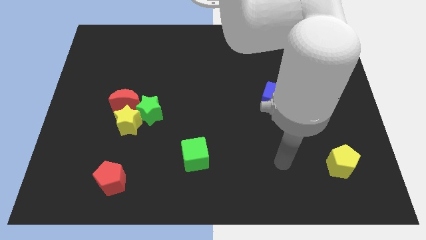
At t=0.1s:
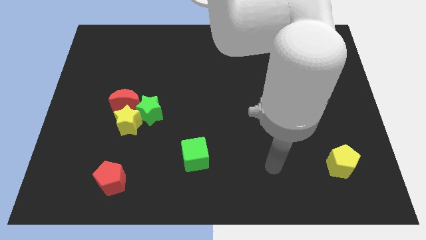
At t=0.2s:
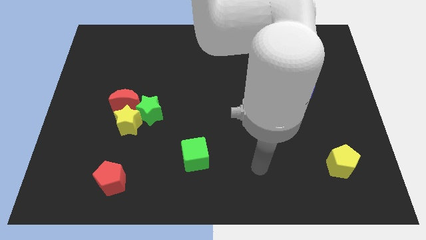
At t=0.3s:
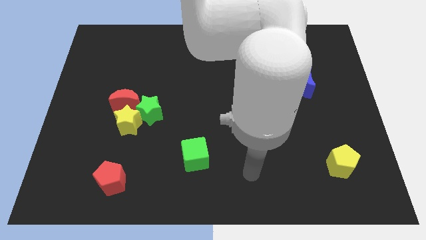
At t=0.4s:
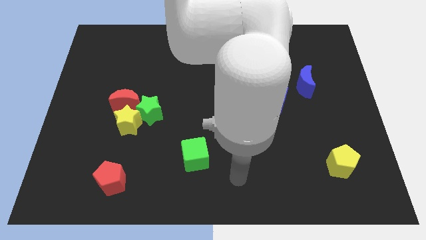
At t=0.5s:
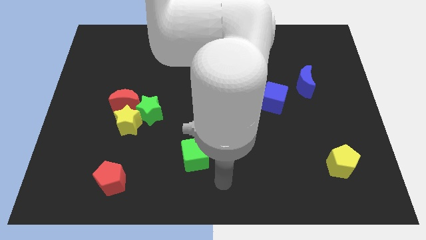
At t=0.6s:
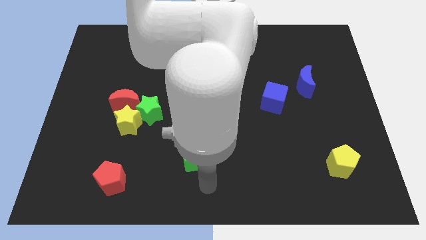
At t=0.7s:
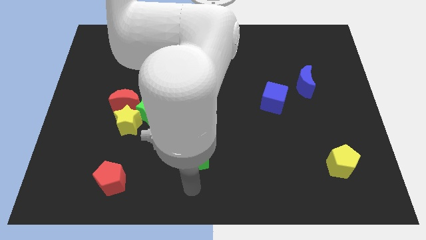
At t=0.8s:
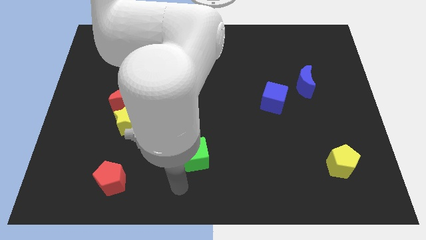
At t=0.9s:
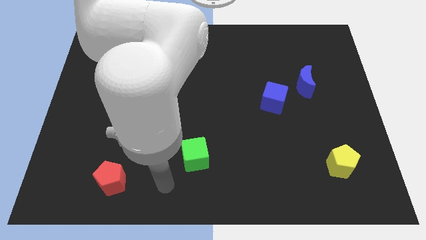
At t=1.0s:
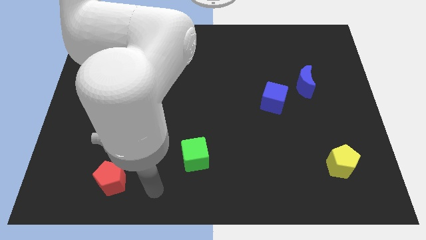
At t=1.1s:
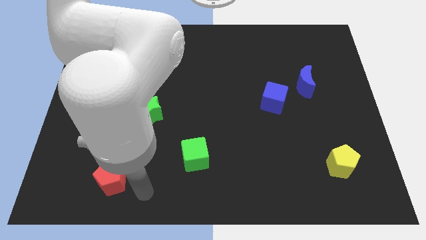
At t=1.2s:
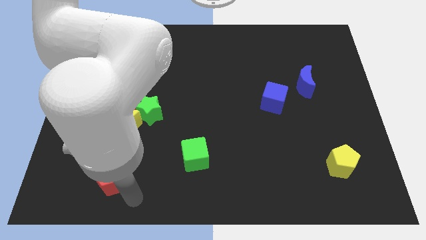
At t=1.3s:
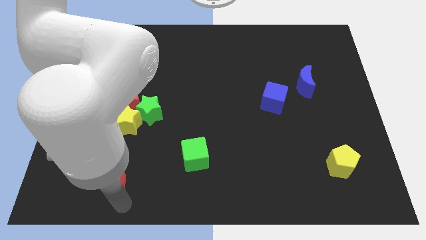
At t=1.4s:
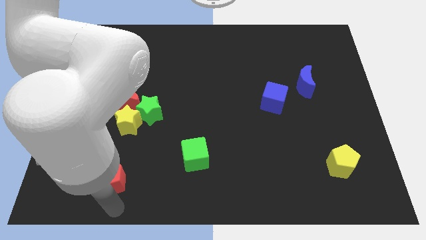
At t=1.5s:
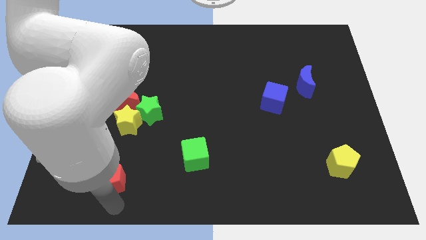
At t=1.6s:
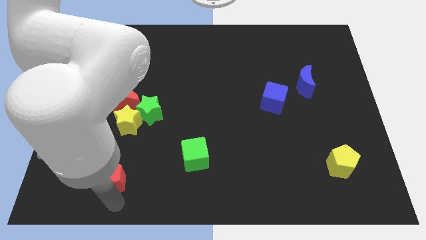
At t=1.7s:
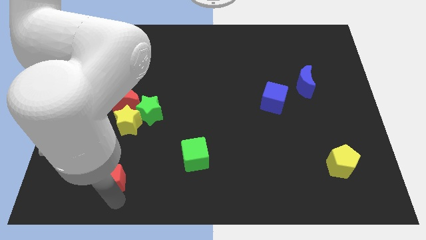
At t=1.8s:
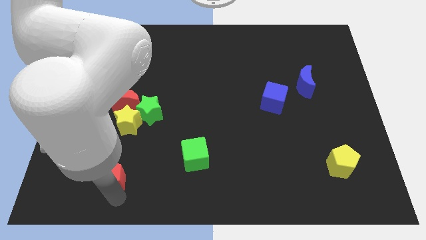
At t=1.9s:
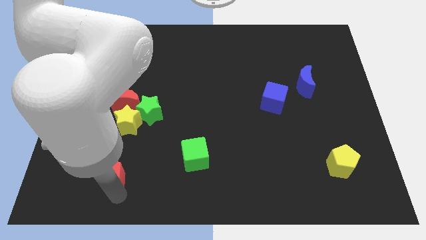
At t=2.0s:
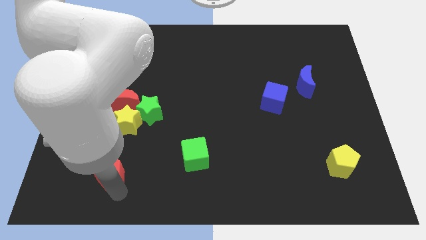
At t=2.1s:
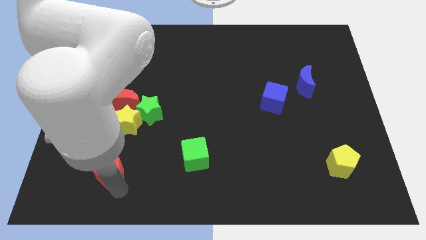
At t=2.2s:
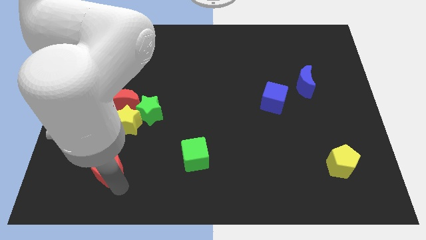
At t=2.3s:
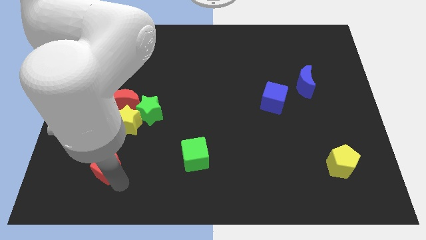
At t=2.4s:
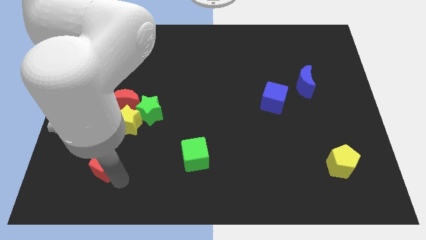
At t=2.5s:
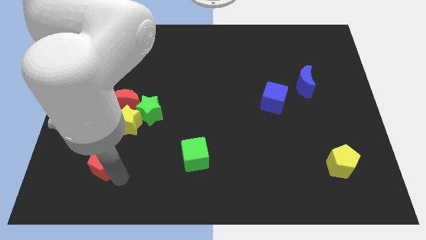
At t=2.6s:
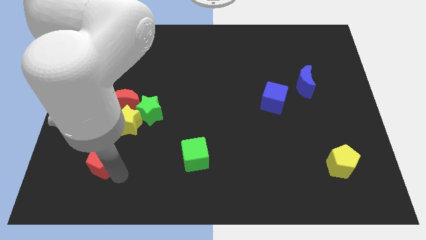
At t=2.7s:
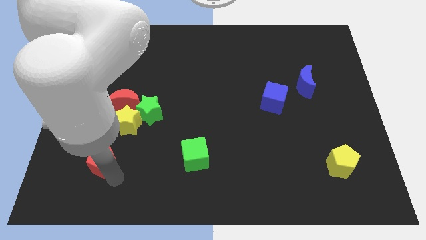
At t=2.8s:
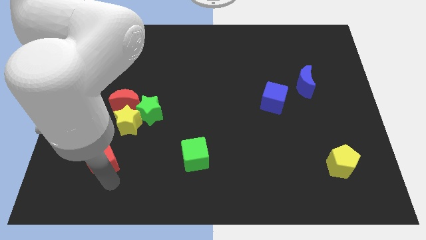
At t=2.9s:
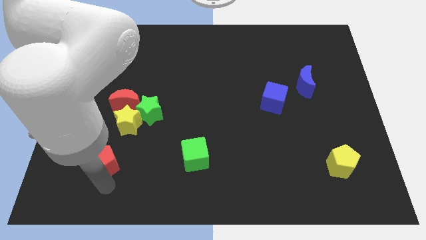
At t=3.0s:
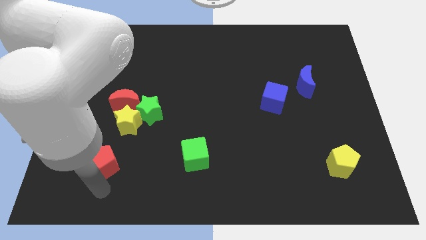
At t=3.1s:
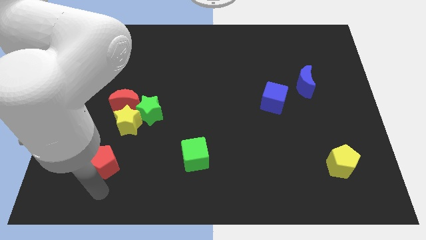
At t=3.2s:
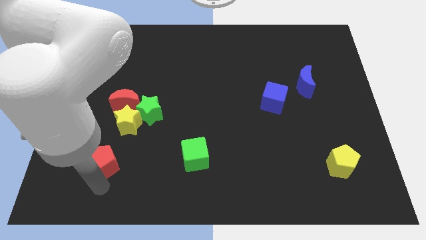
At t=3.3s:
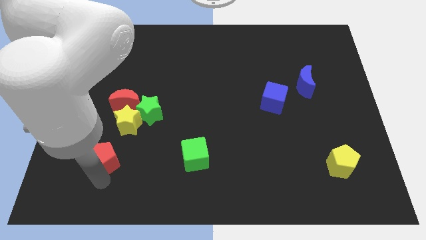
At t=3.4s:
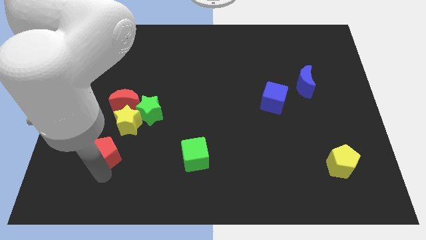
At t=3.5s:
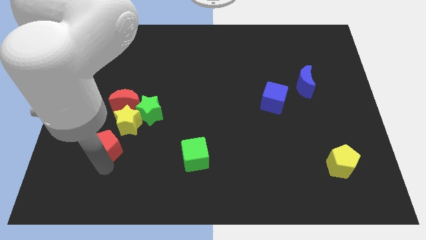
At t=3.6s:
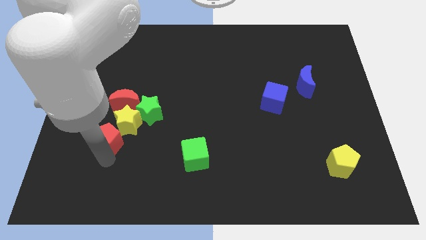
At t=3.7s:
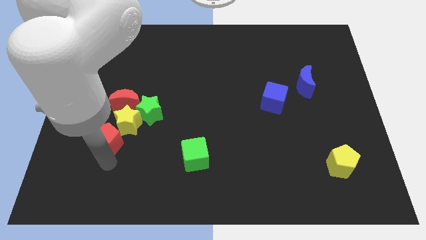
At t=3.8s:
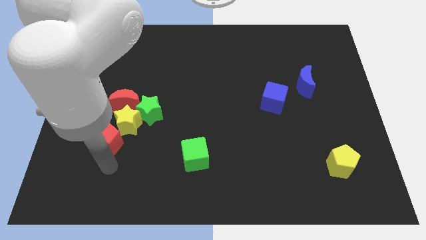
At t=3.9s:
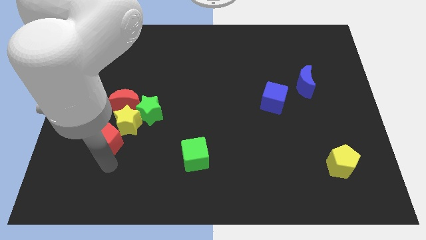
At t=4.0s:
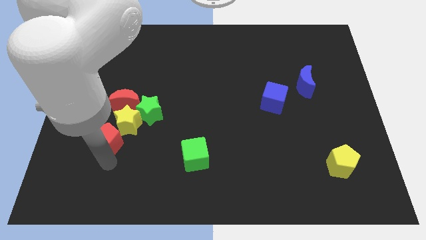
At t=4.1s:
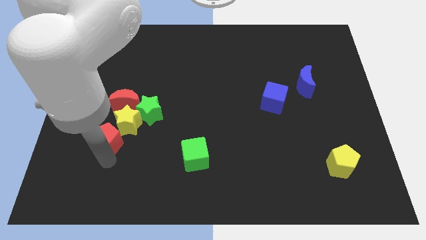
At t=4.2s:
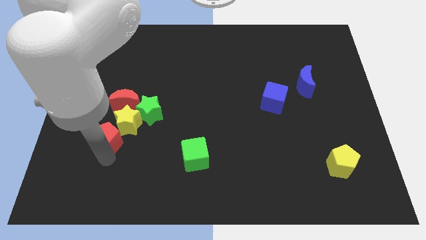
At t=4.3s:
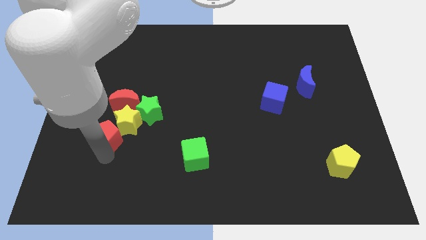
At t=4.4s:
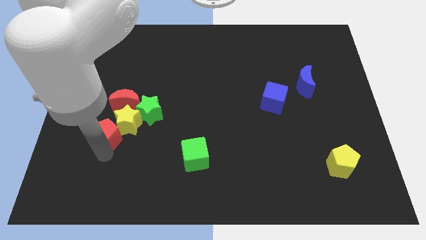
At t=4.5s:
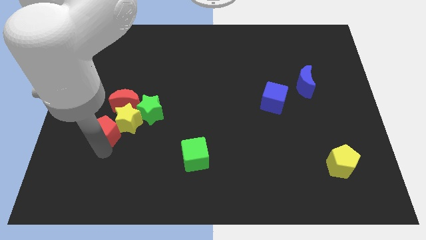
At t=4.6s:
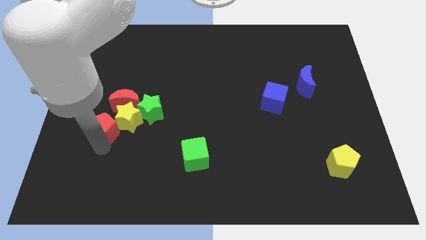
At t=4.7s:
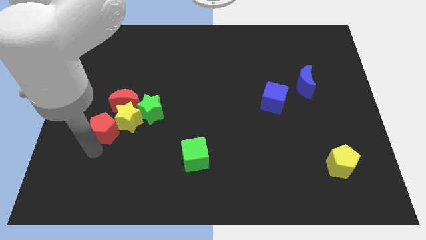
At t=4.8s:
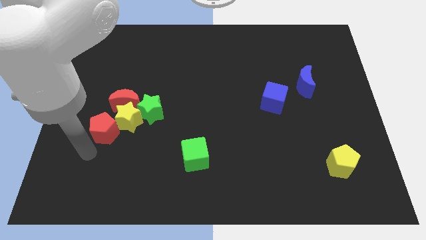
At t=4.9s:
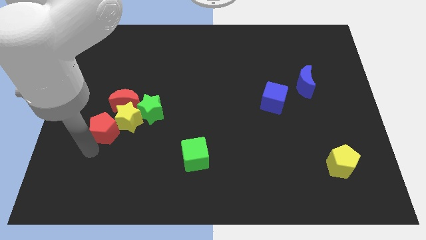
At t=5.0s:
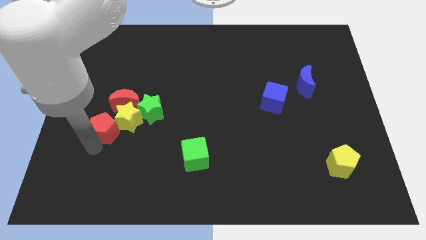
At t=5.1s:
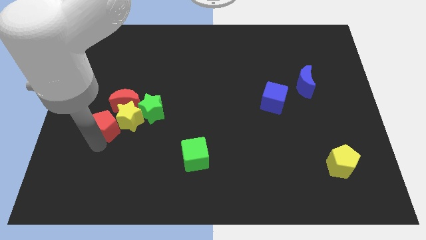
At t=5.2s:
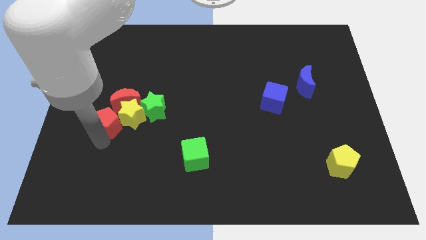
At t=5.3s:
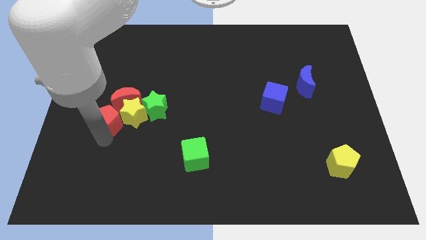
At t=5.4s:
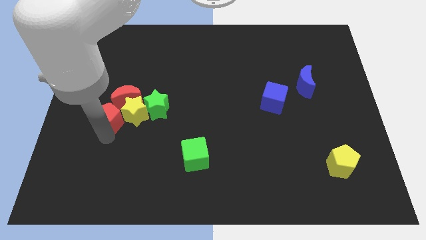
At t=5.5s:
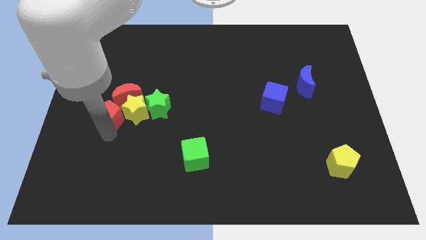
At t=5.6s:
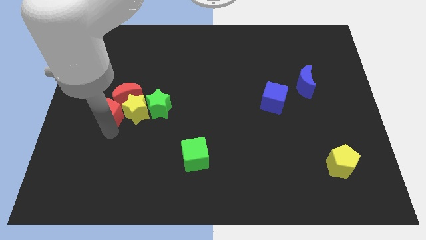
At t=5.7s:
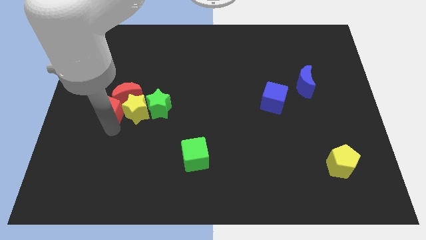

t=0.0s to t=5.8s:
move the red pentagon to the red moon
